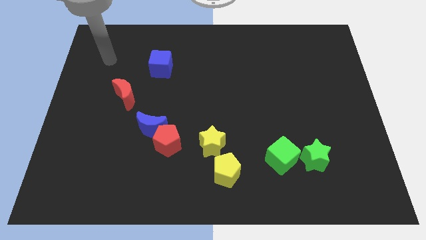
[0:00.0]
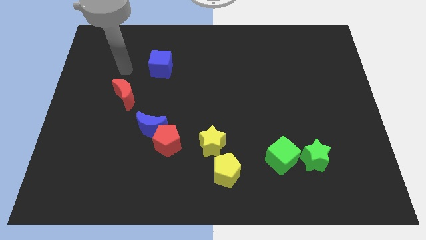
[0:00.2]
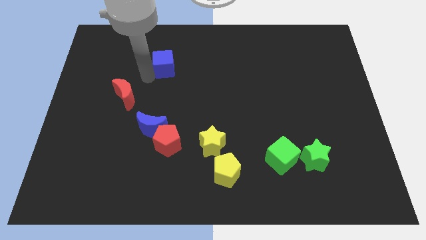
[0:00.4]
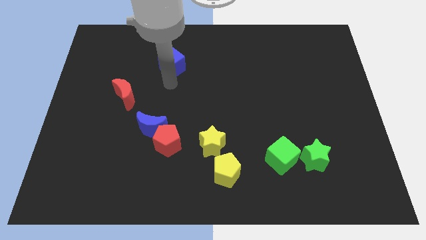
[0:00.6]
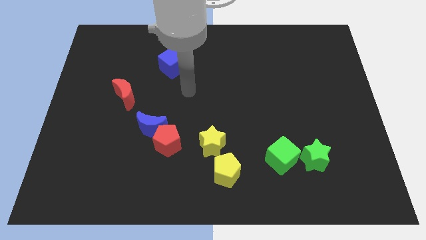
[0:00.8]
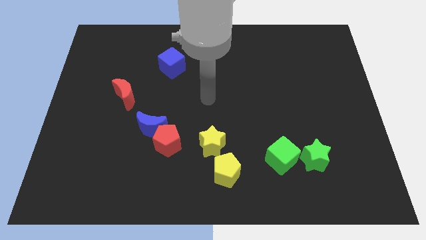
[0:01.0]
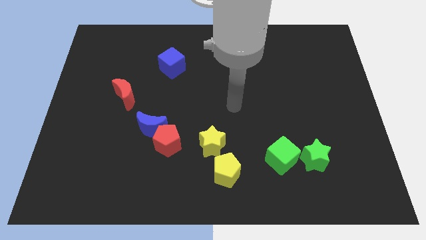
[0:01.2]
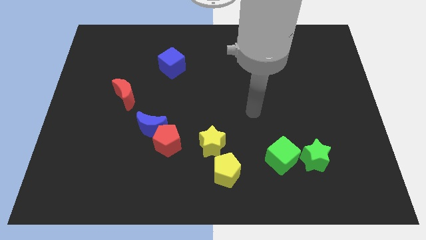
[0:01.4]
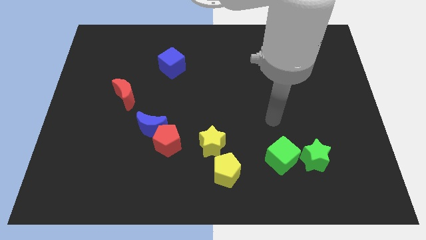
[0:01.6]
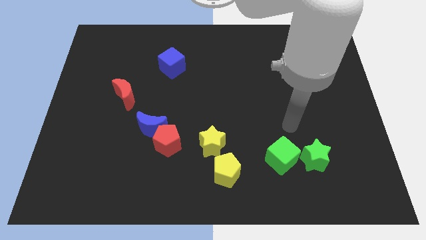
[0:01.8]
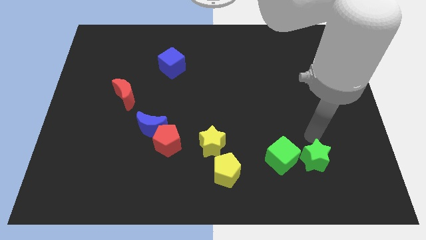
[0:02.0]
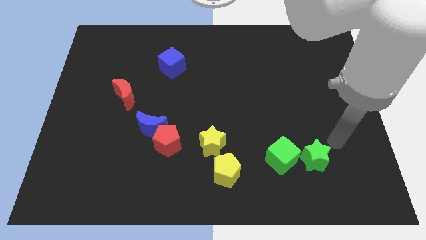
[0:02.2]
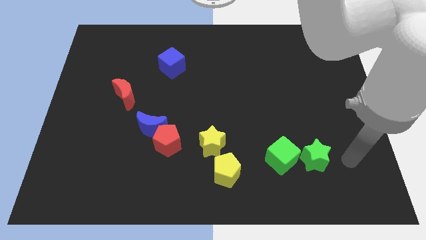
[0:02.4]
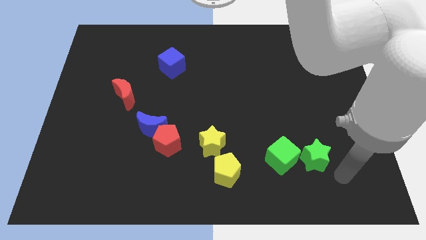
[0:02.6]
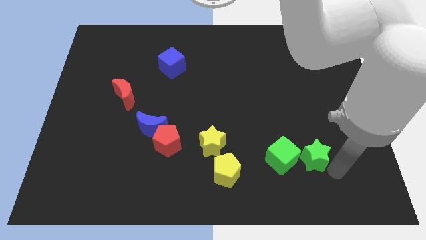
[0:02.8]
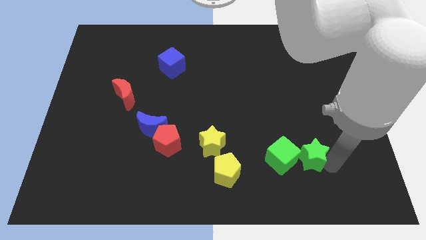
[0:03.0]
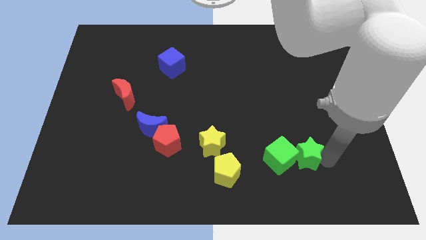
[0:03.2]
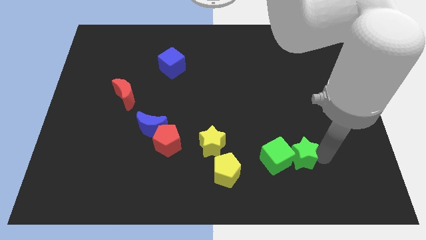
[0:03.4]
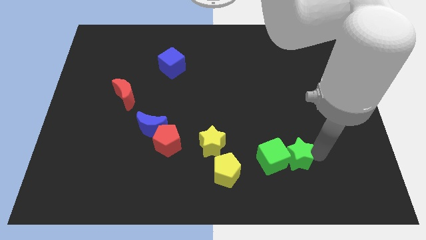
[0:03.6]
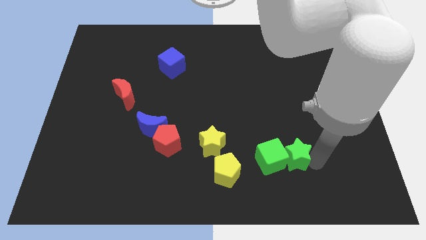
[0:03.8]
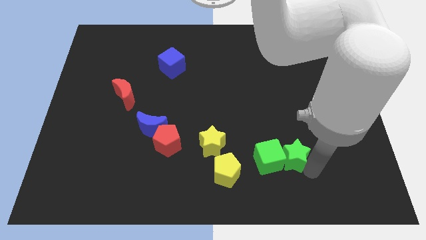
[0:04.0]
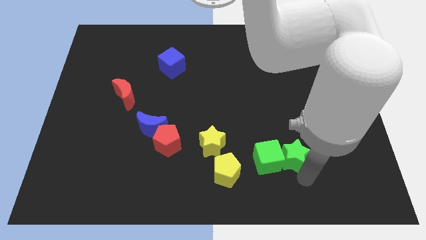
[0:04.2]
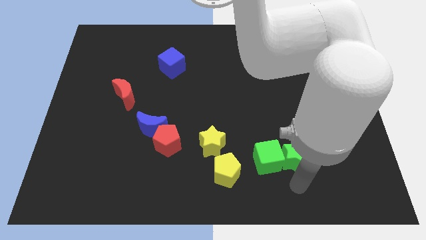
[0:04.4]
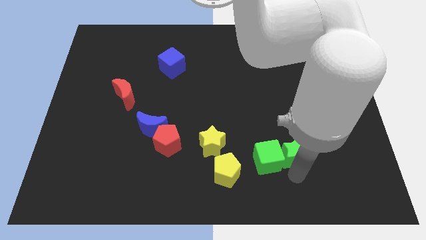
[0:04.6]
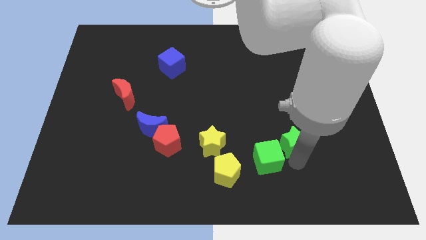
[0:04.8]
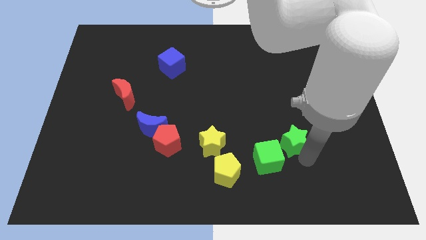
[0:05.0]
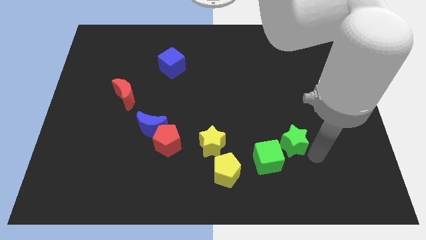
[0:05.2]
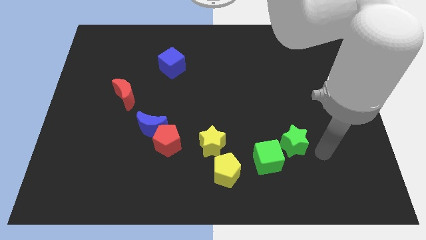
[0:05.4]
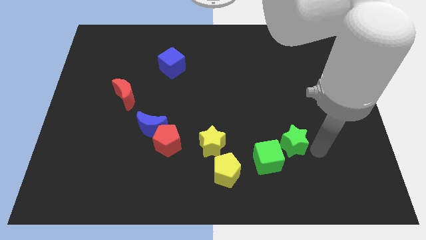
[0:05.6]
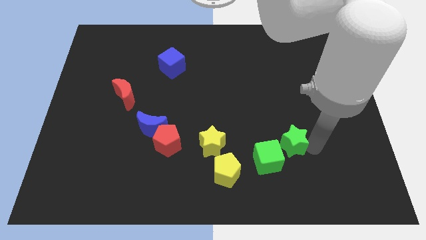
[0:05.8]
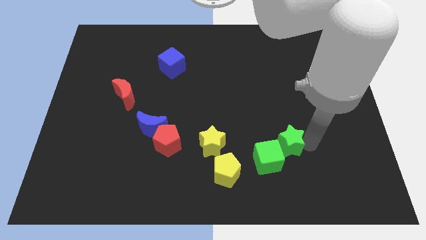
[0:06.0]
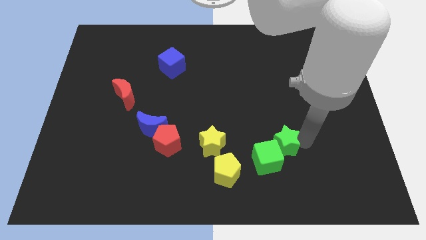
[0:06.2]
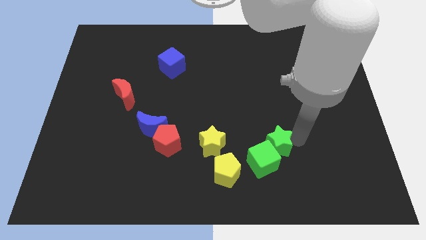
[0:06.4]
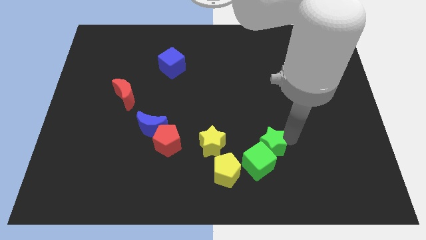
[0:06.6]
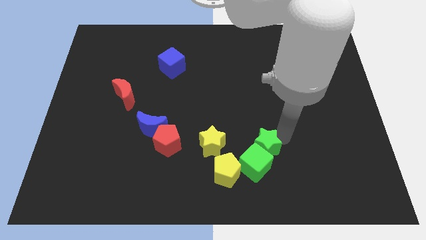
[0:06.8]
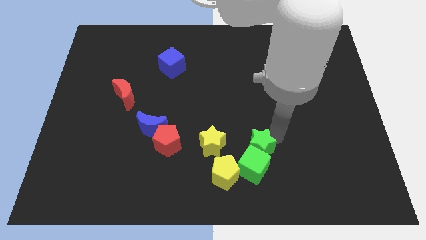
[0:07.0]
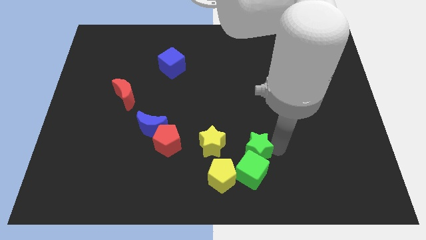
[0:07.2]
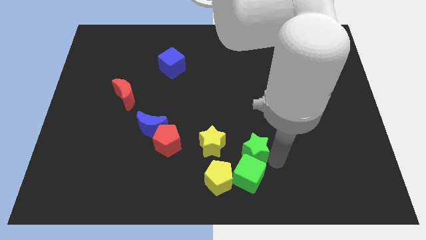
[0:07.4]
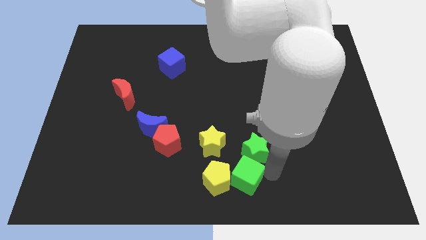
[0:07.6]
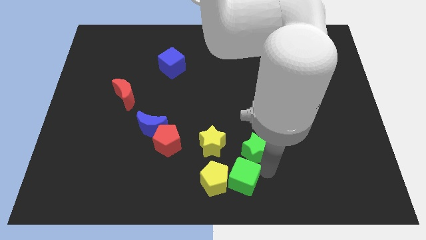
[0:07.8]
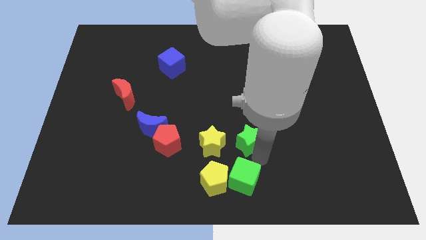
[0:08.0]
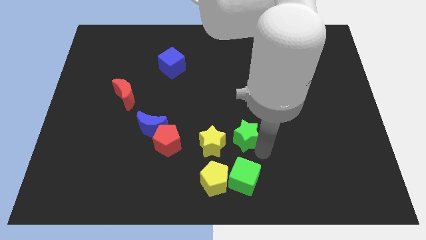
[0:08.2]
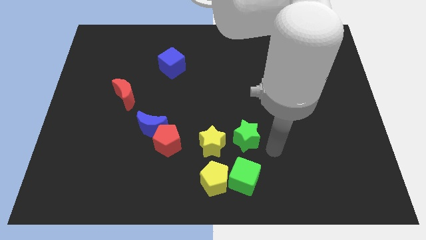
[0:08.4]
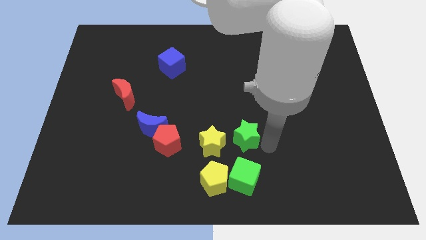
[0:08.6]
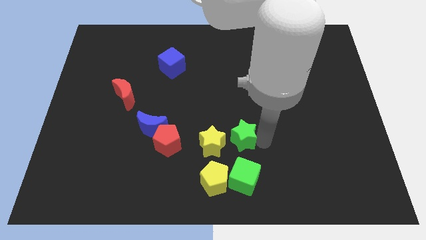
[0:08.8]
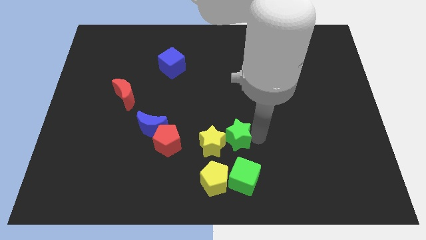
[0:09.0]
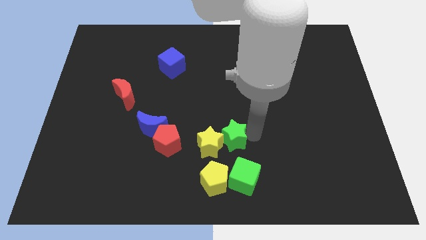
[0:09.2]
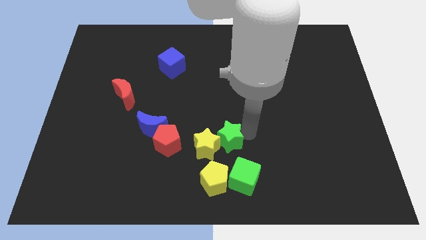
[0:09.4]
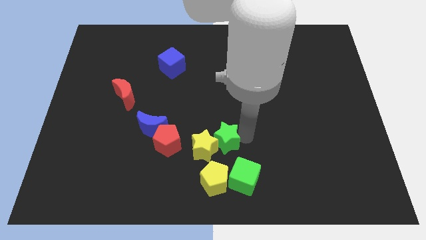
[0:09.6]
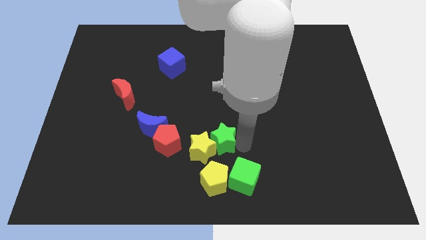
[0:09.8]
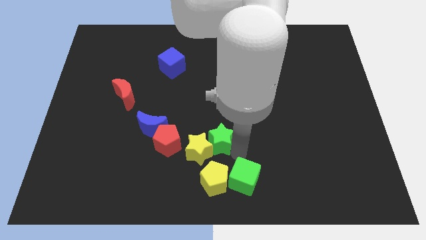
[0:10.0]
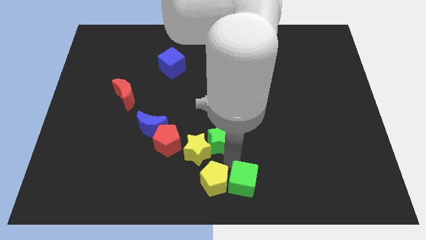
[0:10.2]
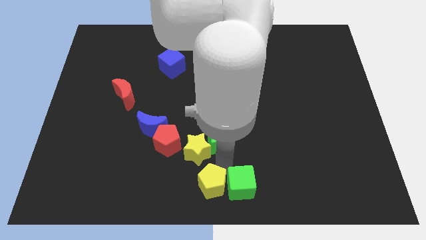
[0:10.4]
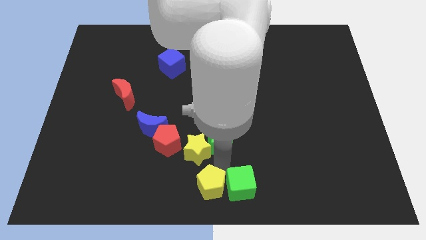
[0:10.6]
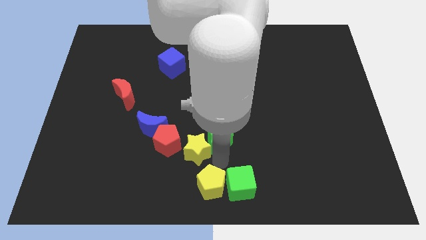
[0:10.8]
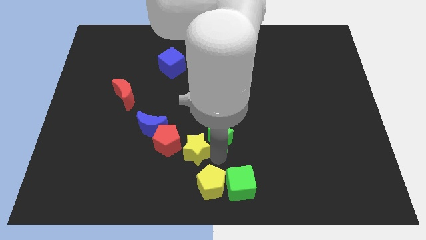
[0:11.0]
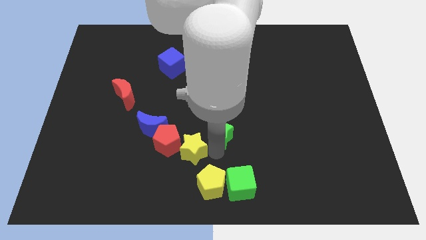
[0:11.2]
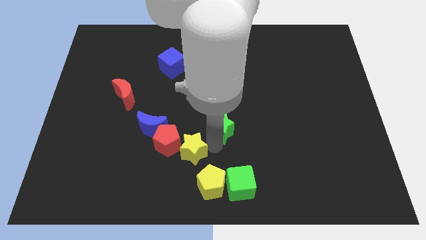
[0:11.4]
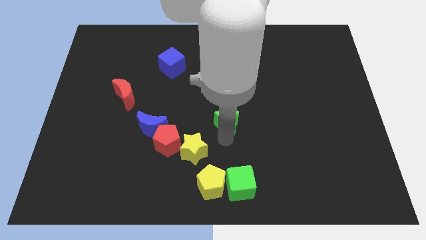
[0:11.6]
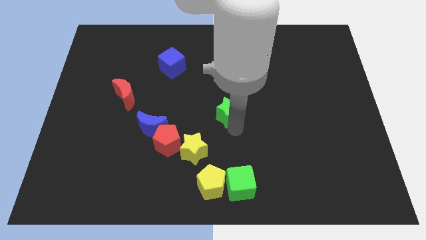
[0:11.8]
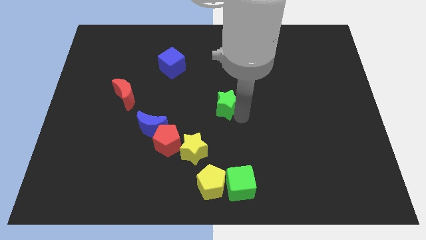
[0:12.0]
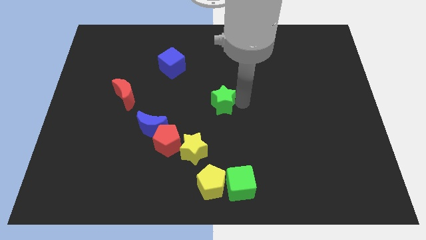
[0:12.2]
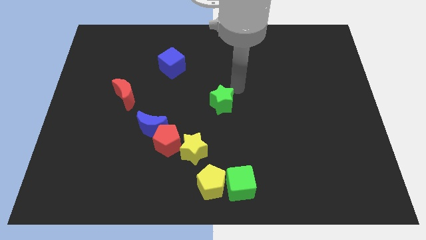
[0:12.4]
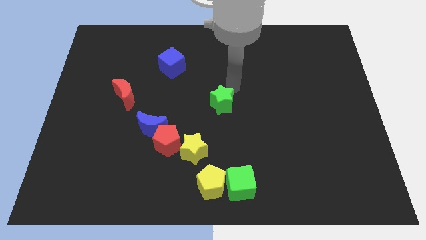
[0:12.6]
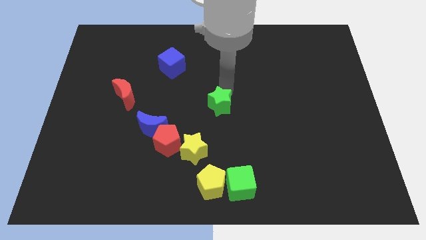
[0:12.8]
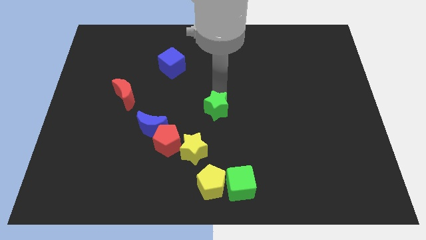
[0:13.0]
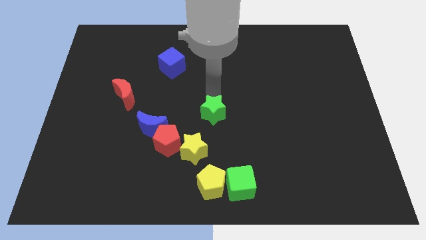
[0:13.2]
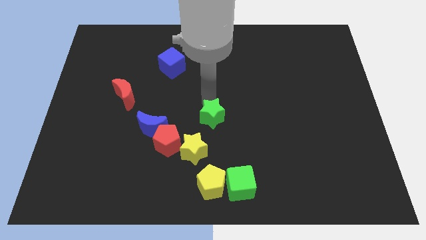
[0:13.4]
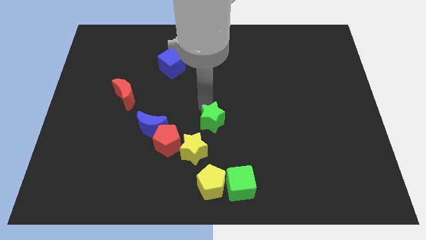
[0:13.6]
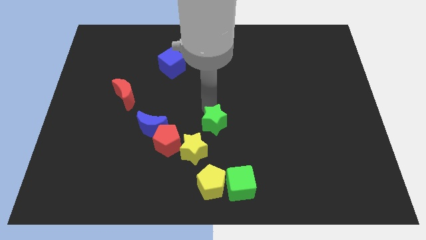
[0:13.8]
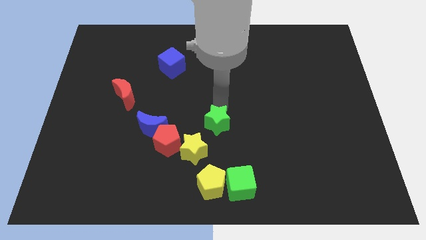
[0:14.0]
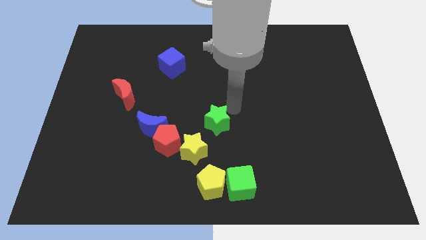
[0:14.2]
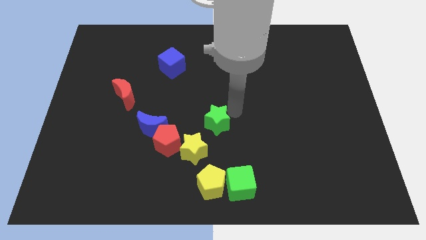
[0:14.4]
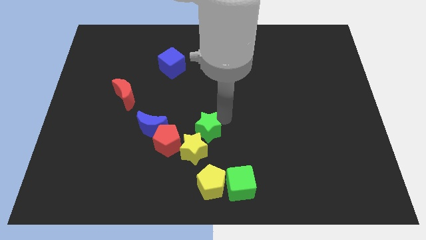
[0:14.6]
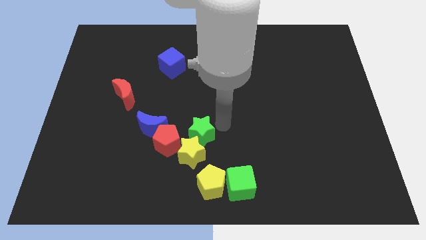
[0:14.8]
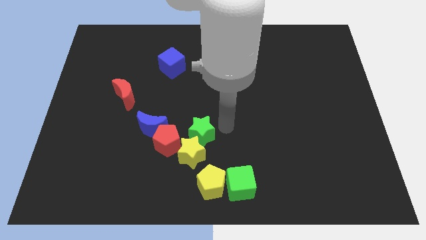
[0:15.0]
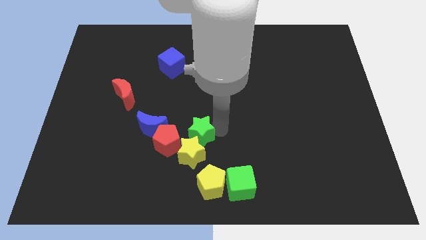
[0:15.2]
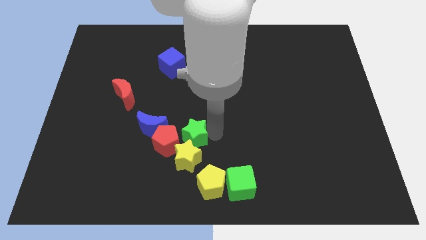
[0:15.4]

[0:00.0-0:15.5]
put the green star next to the red pentagon
